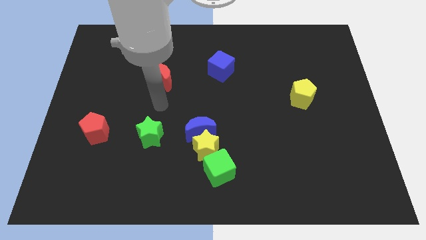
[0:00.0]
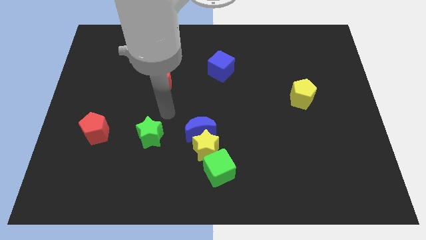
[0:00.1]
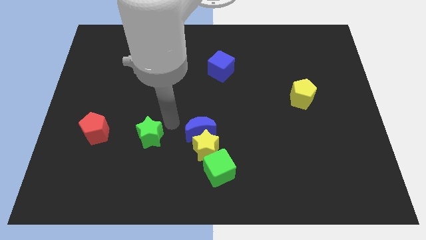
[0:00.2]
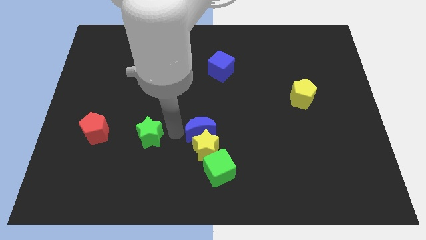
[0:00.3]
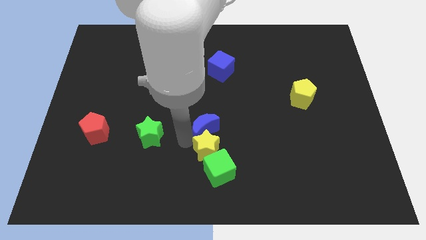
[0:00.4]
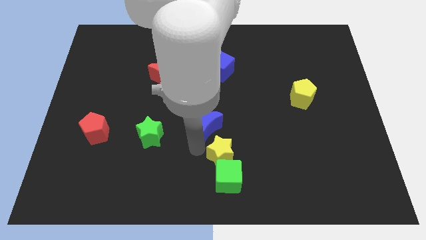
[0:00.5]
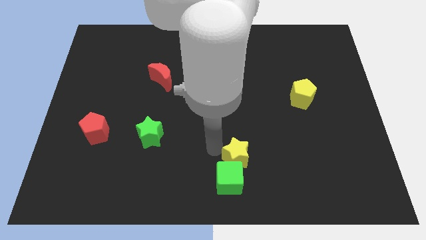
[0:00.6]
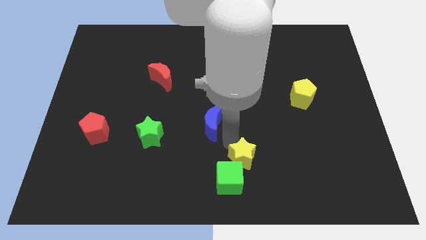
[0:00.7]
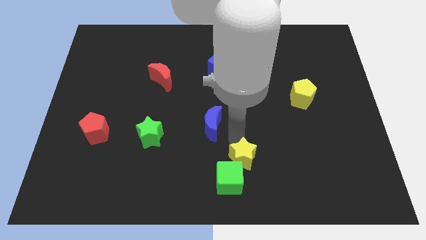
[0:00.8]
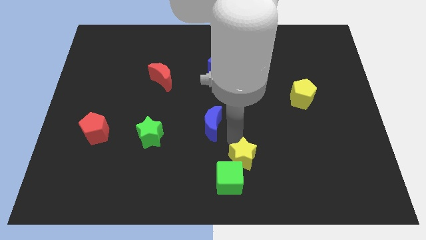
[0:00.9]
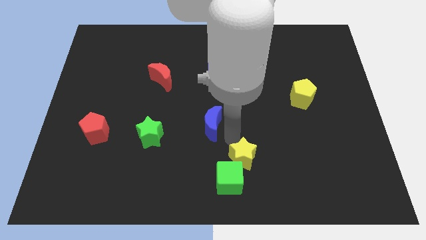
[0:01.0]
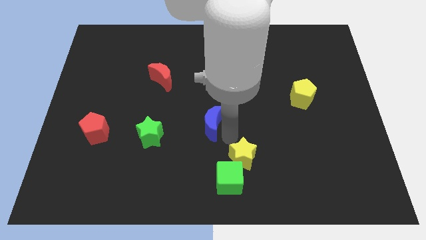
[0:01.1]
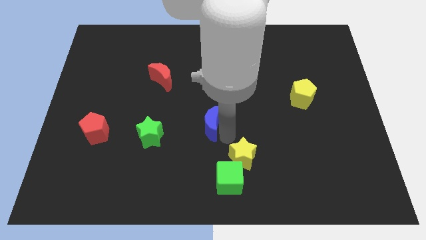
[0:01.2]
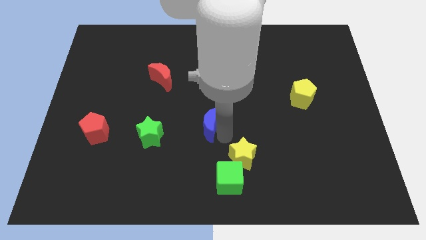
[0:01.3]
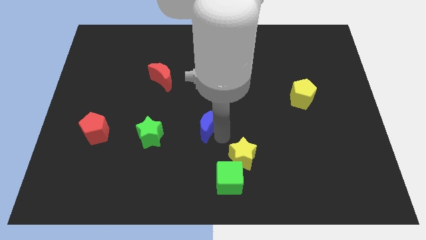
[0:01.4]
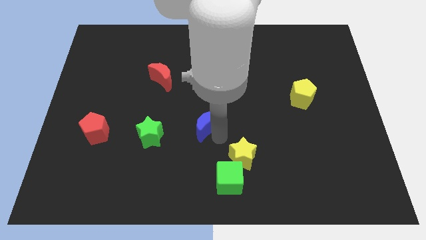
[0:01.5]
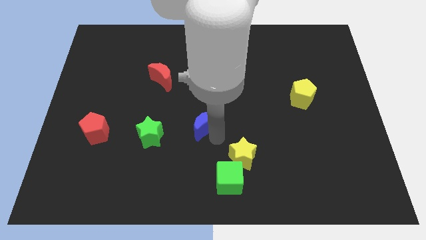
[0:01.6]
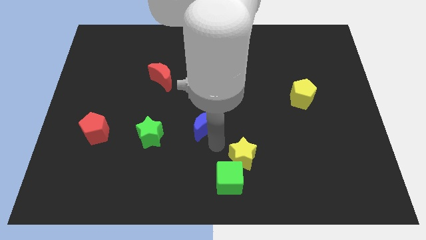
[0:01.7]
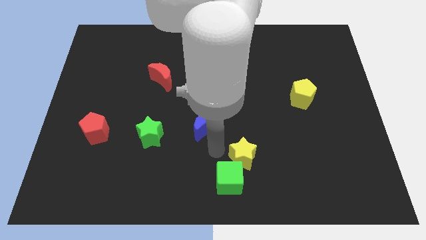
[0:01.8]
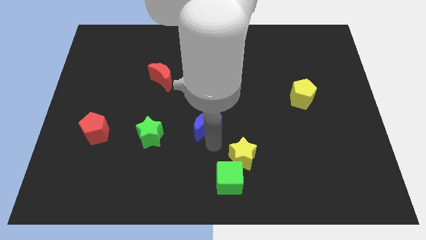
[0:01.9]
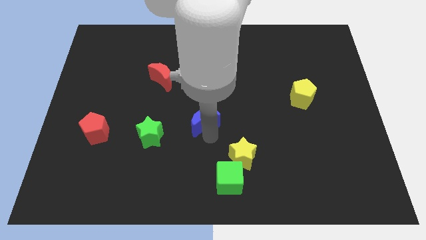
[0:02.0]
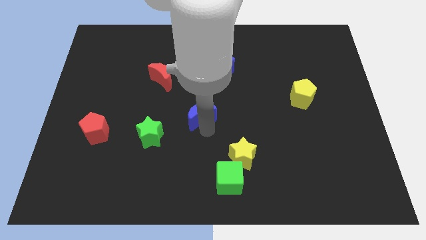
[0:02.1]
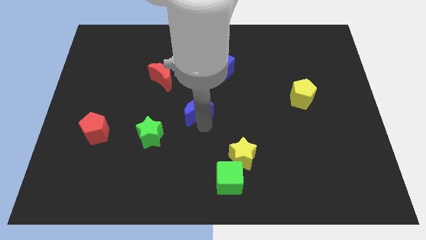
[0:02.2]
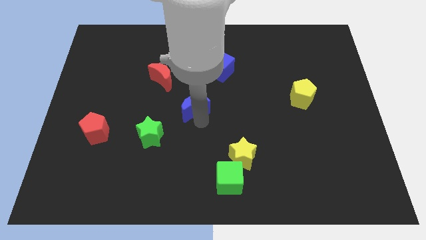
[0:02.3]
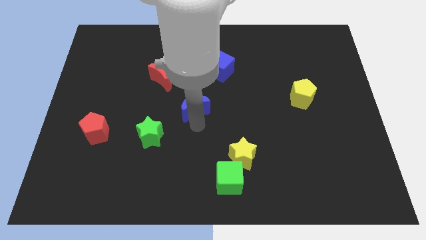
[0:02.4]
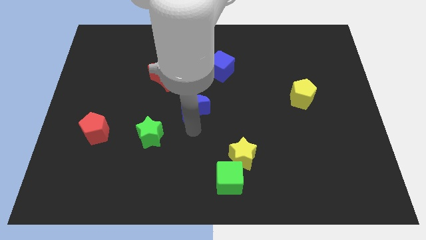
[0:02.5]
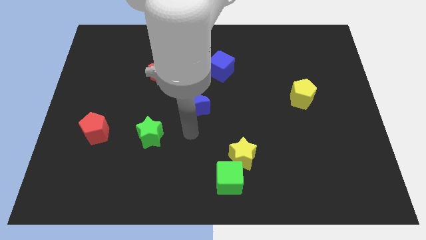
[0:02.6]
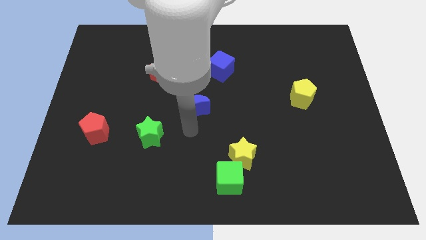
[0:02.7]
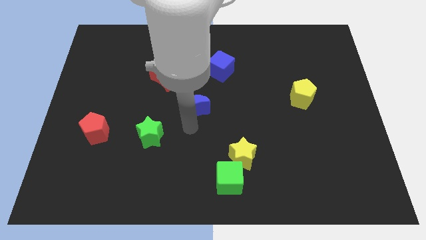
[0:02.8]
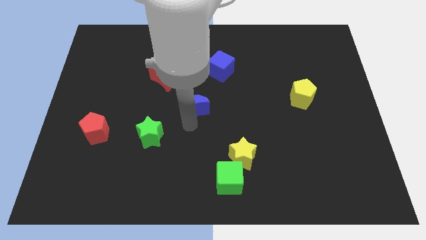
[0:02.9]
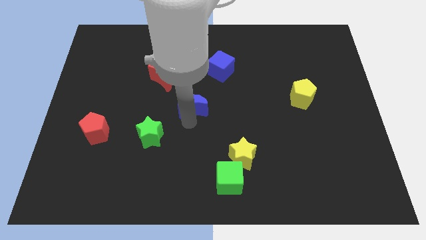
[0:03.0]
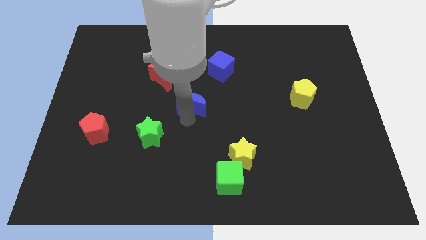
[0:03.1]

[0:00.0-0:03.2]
slightly slide the blue moon upwards

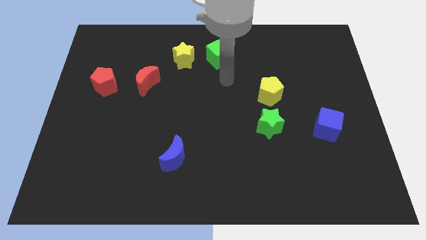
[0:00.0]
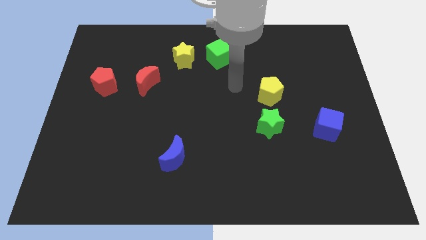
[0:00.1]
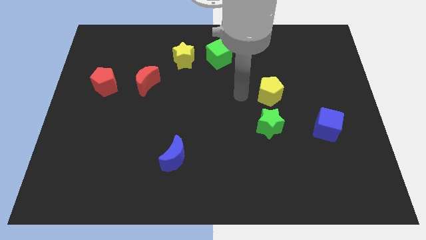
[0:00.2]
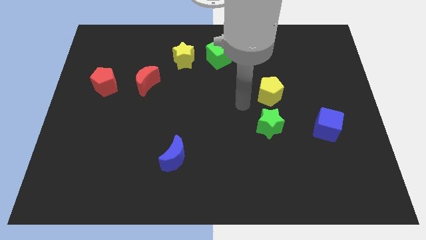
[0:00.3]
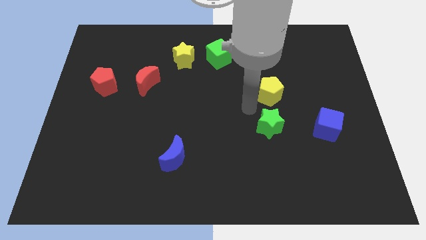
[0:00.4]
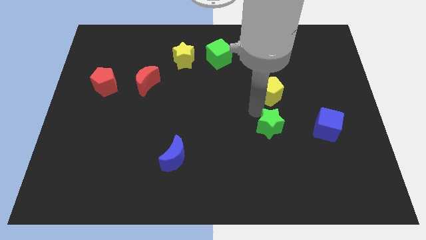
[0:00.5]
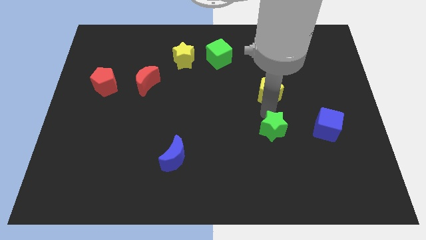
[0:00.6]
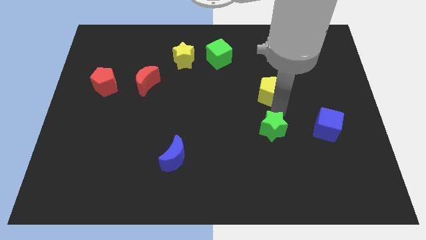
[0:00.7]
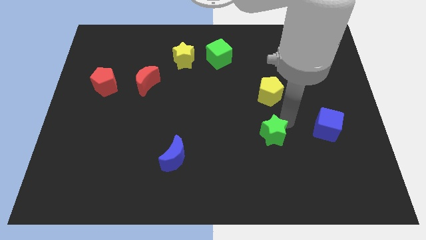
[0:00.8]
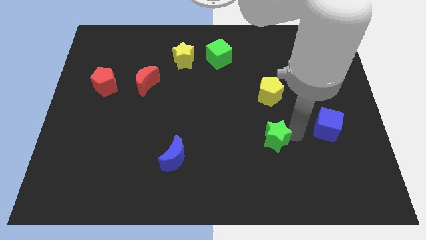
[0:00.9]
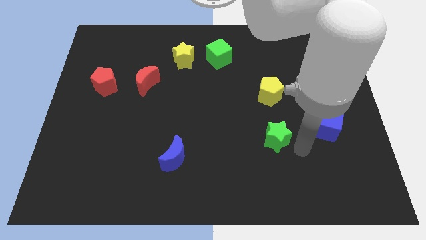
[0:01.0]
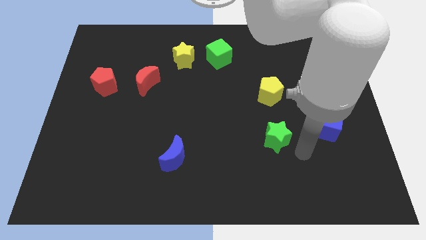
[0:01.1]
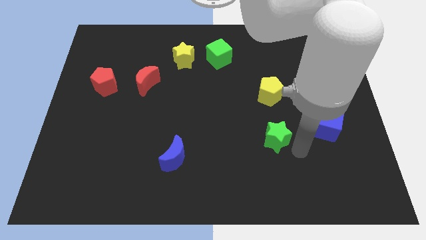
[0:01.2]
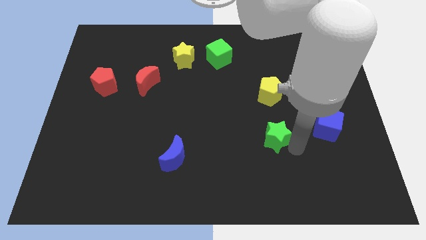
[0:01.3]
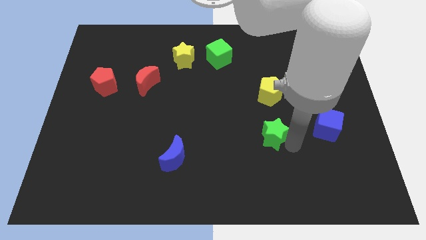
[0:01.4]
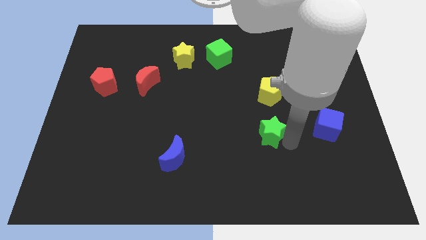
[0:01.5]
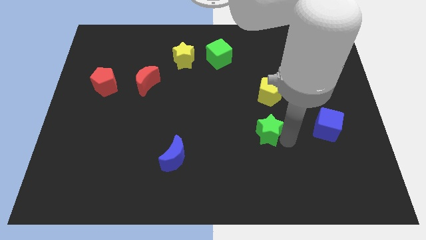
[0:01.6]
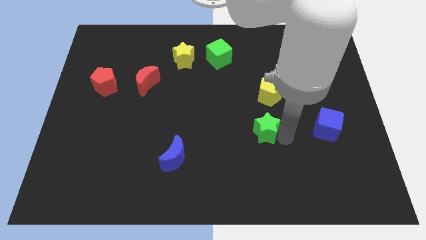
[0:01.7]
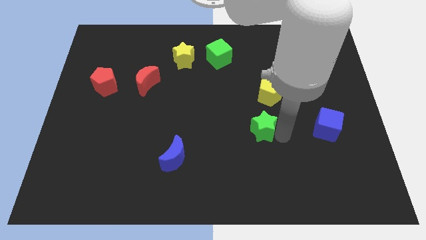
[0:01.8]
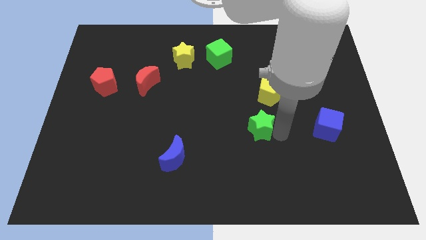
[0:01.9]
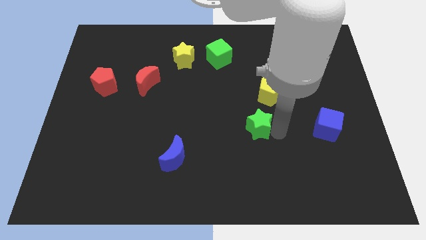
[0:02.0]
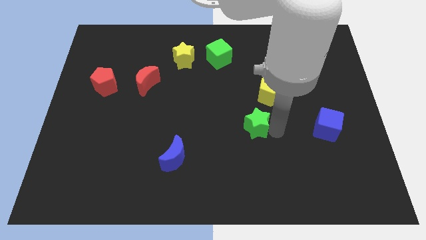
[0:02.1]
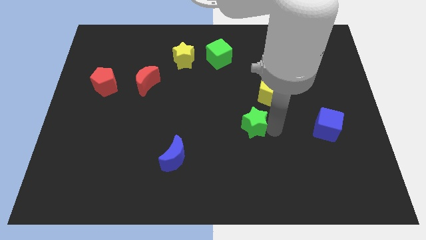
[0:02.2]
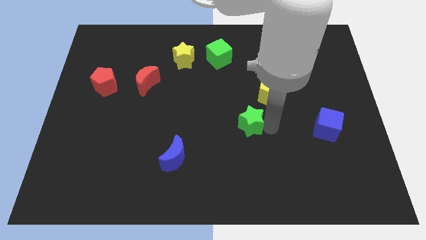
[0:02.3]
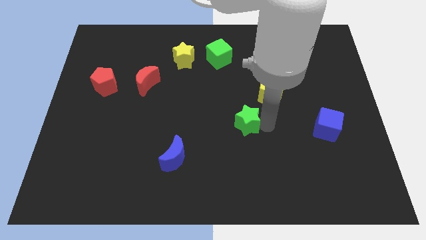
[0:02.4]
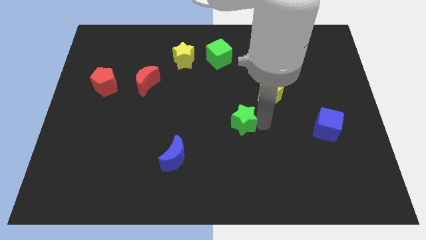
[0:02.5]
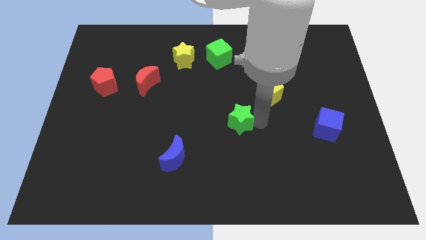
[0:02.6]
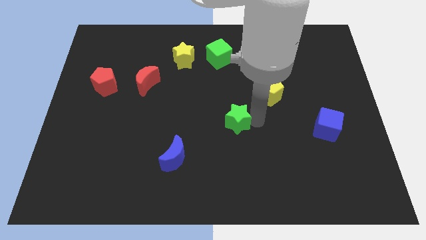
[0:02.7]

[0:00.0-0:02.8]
slide the green star a bit to the left

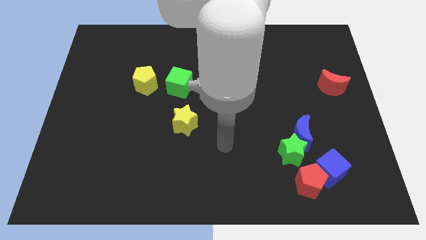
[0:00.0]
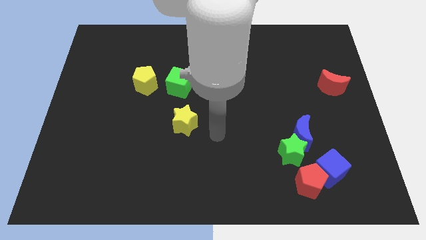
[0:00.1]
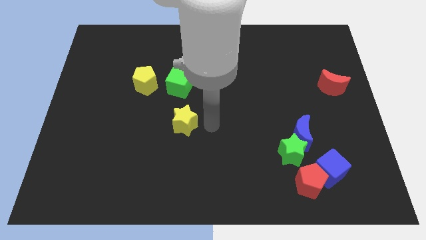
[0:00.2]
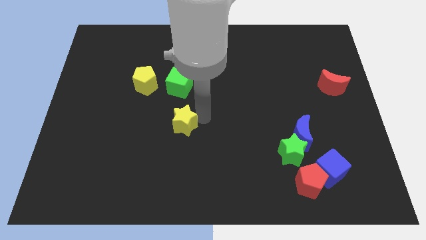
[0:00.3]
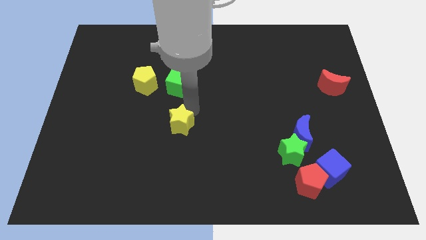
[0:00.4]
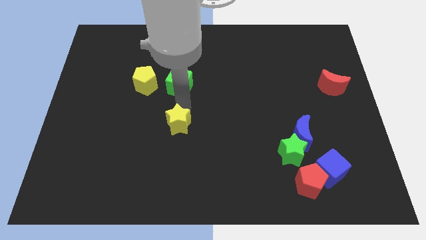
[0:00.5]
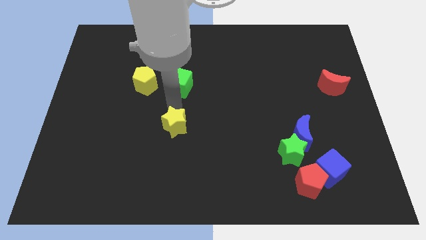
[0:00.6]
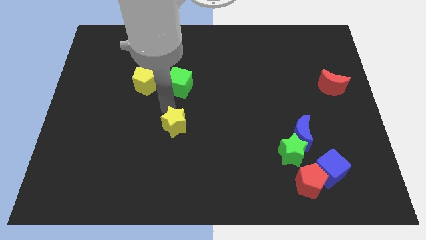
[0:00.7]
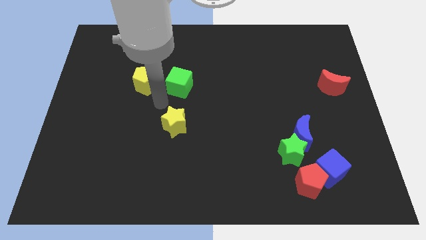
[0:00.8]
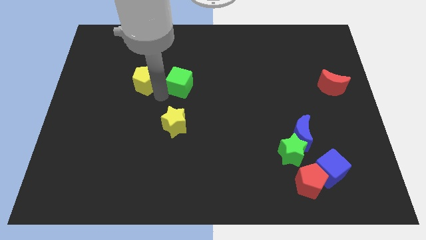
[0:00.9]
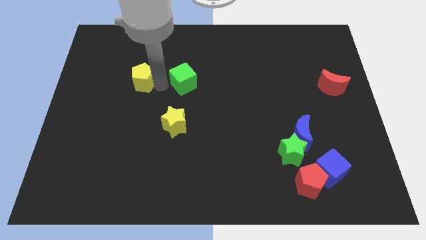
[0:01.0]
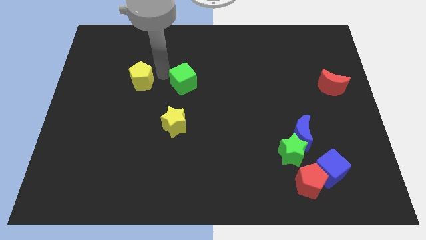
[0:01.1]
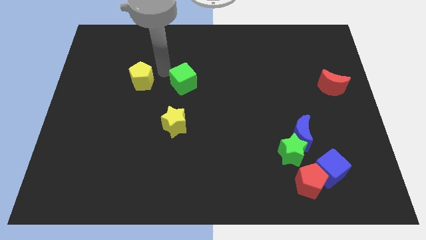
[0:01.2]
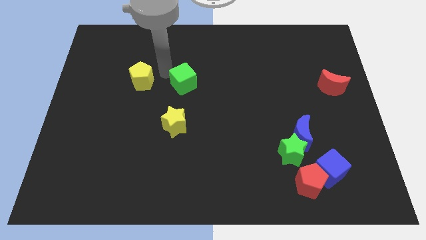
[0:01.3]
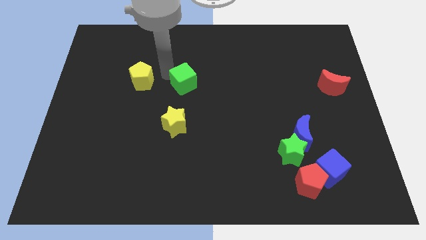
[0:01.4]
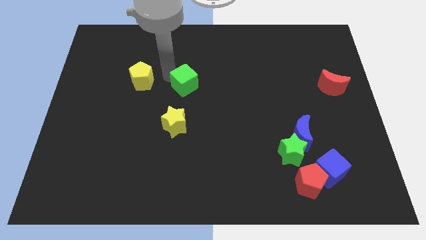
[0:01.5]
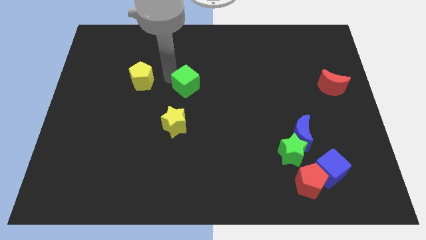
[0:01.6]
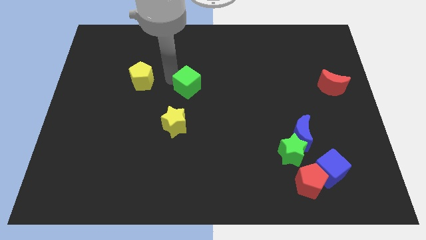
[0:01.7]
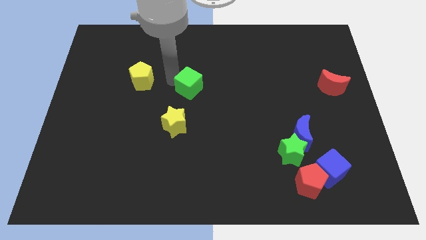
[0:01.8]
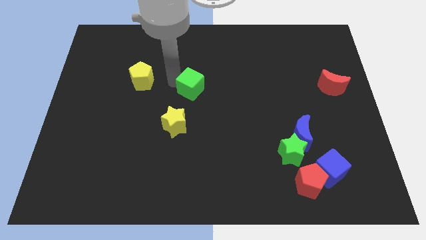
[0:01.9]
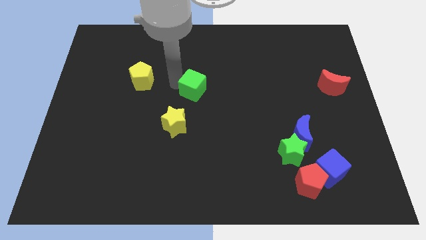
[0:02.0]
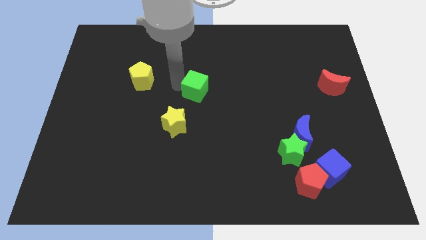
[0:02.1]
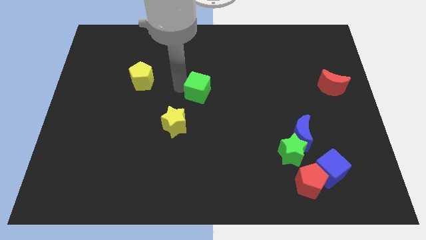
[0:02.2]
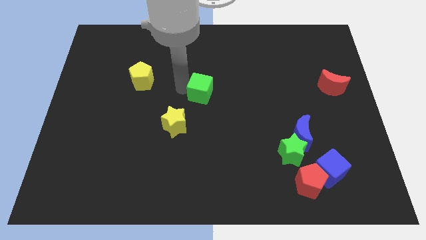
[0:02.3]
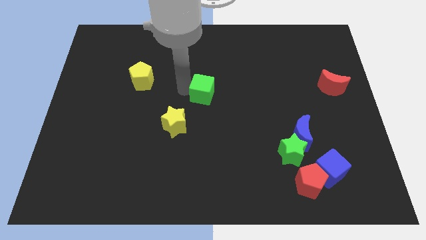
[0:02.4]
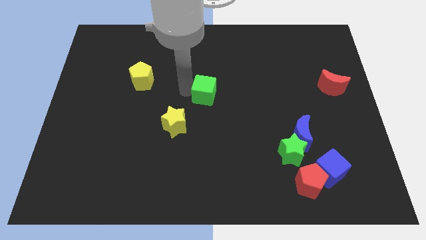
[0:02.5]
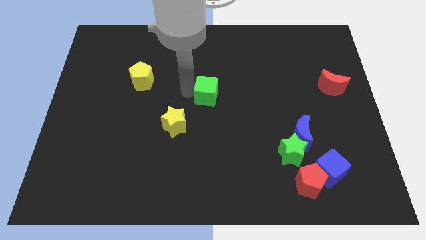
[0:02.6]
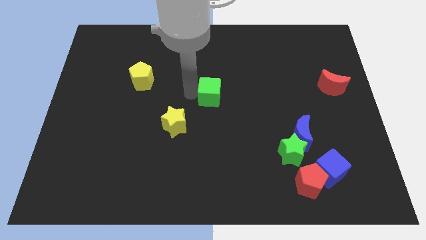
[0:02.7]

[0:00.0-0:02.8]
move the green cube somewhat right
